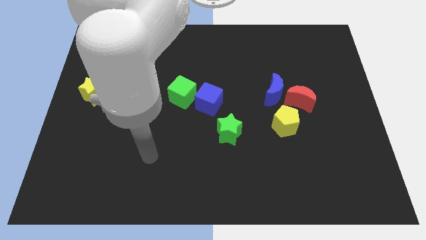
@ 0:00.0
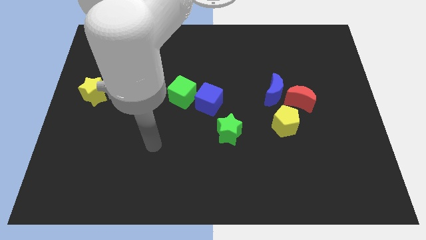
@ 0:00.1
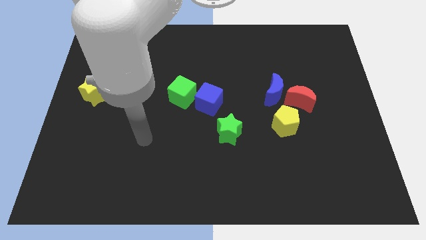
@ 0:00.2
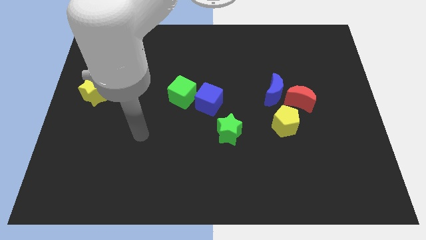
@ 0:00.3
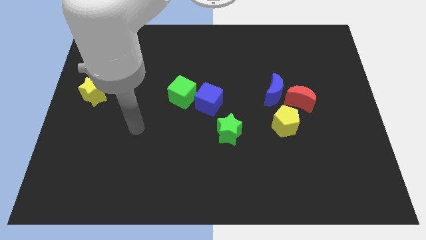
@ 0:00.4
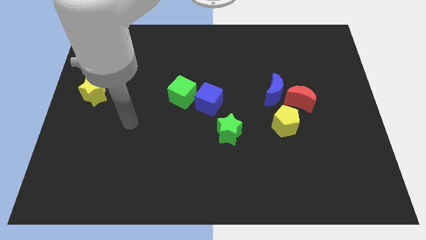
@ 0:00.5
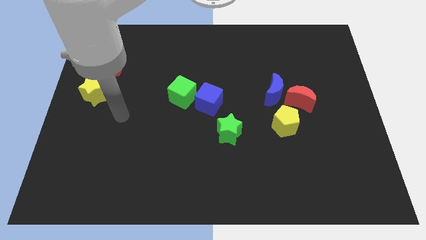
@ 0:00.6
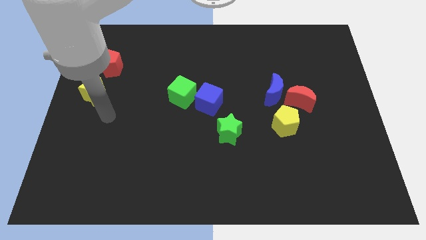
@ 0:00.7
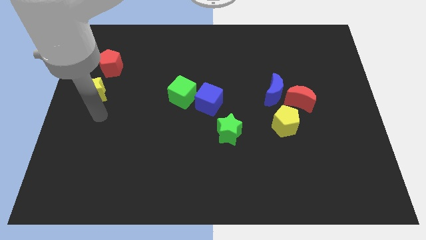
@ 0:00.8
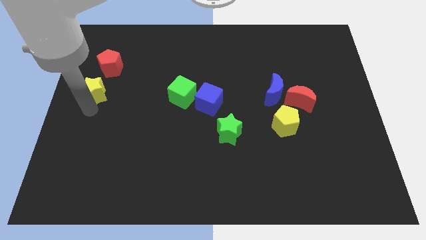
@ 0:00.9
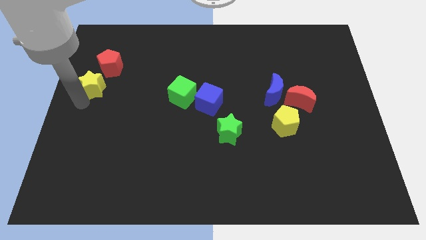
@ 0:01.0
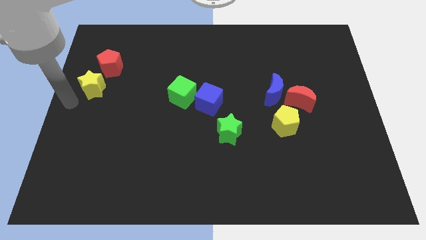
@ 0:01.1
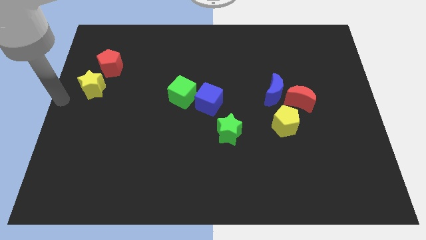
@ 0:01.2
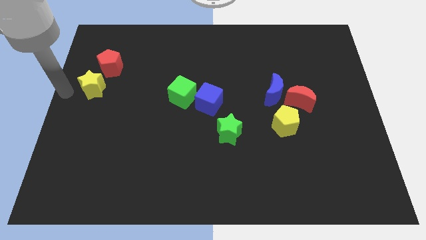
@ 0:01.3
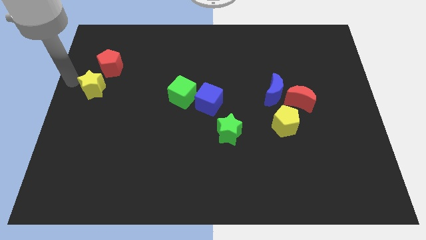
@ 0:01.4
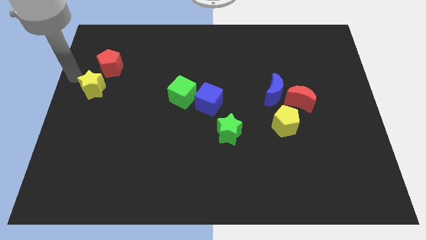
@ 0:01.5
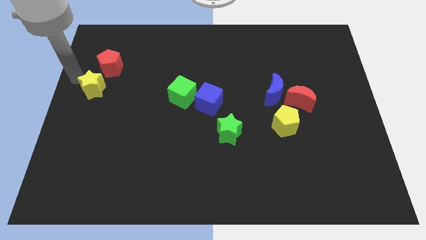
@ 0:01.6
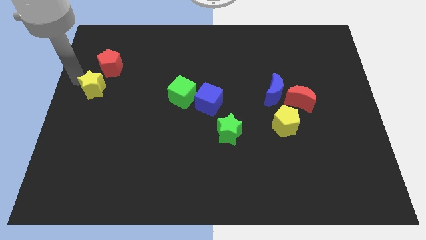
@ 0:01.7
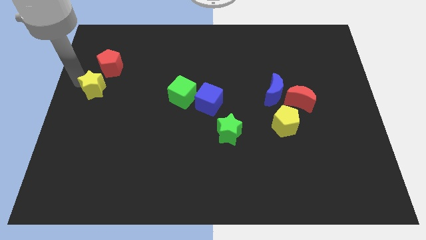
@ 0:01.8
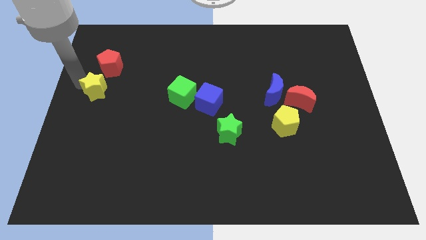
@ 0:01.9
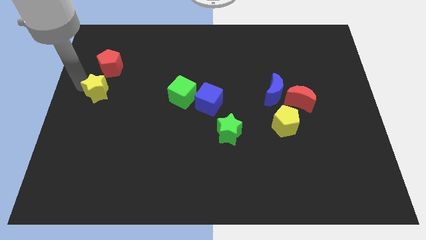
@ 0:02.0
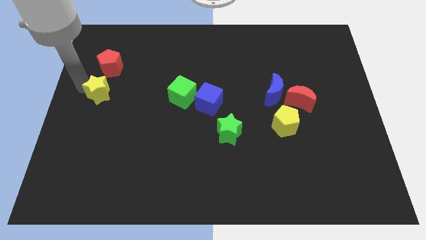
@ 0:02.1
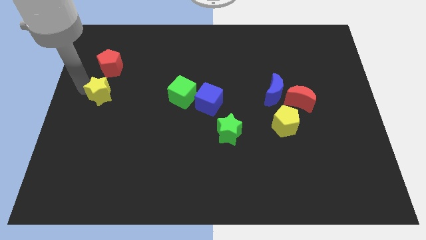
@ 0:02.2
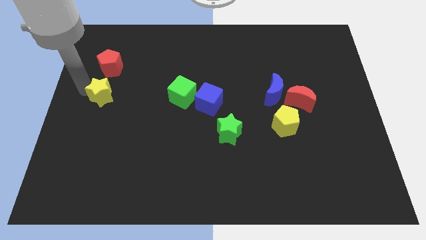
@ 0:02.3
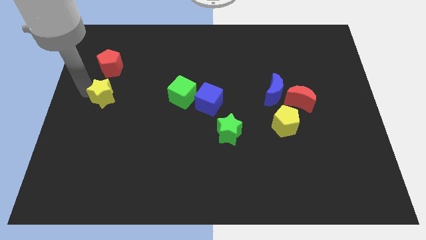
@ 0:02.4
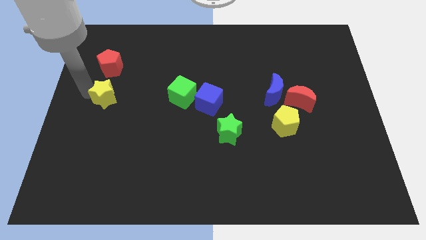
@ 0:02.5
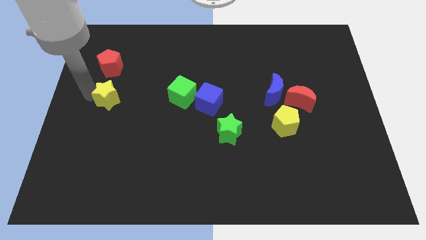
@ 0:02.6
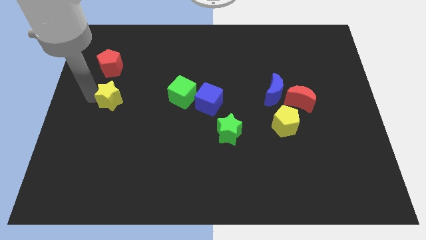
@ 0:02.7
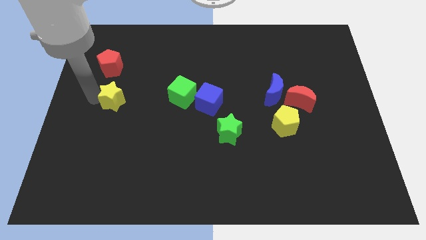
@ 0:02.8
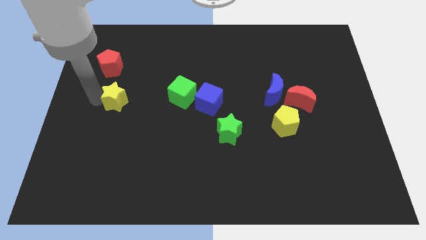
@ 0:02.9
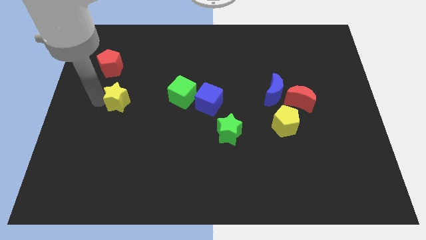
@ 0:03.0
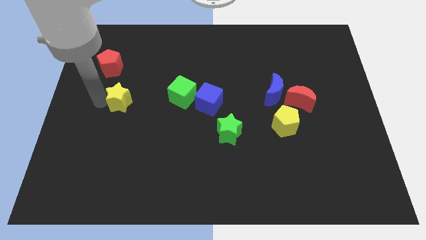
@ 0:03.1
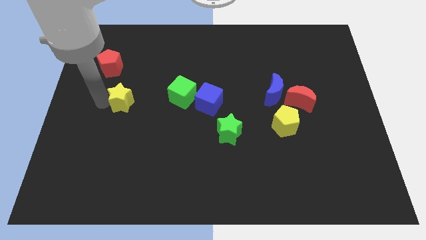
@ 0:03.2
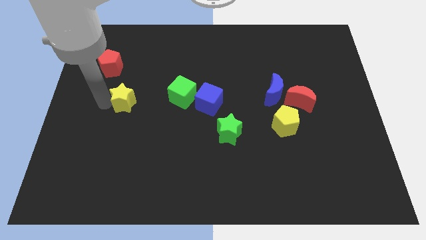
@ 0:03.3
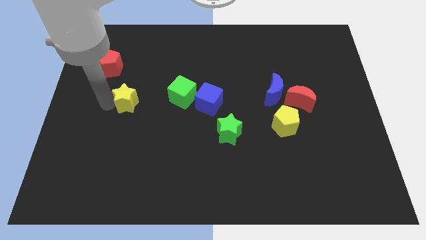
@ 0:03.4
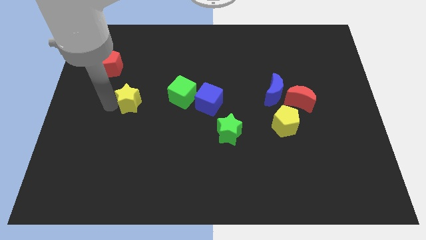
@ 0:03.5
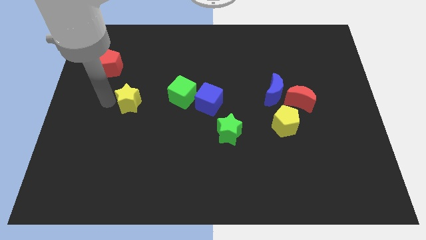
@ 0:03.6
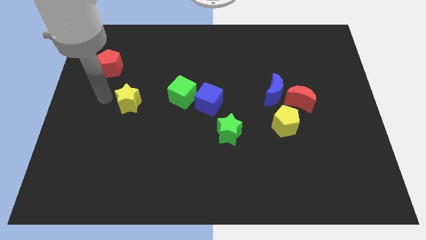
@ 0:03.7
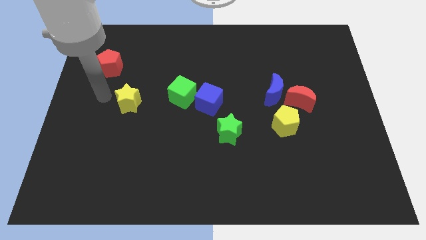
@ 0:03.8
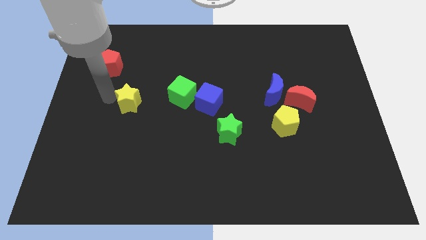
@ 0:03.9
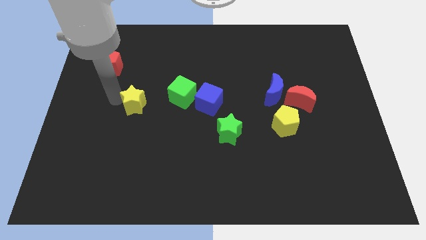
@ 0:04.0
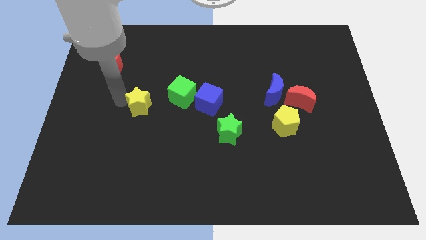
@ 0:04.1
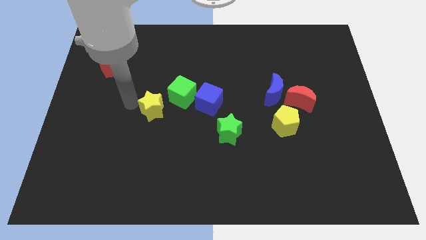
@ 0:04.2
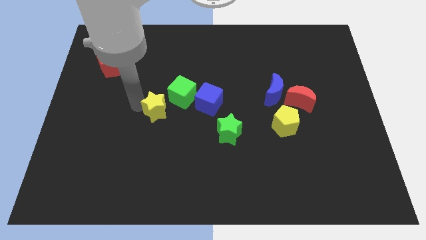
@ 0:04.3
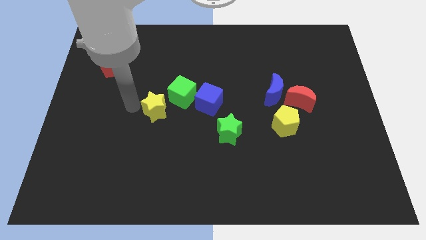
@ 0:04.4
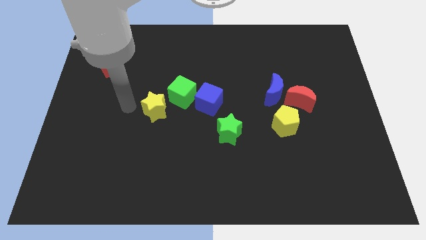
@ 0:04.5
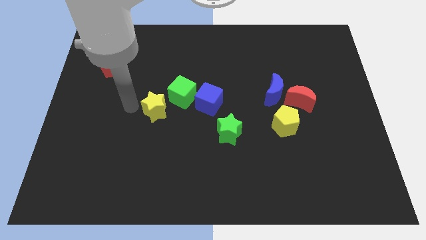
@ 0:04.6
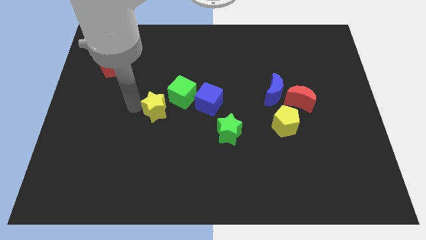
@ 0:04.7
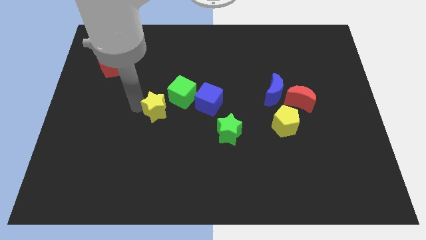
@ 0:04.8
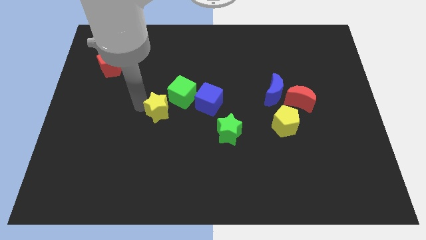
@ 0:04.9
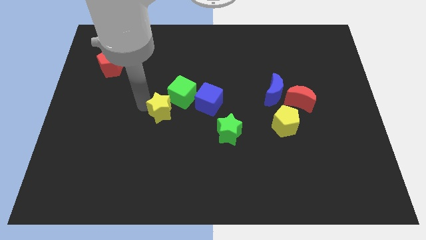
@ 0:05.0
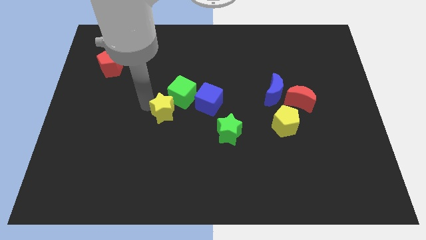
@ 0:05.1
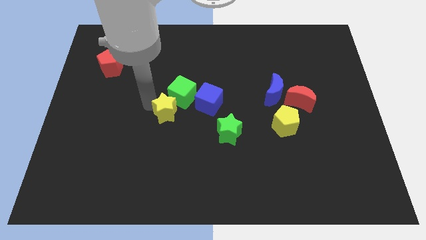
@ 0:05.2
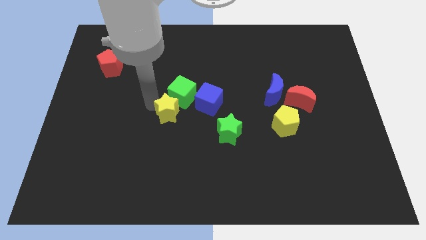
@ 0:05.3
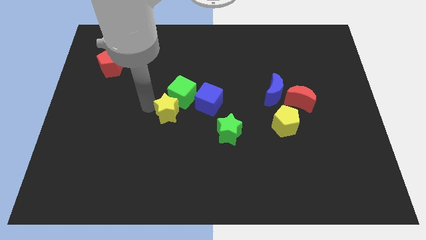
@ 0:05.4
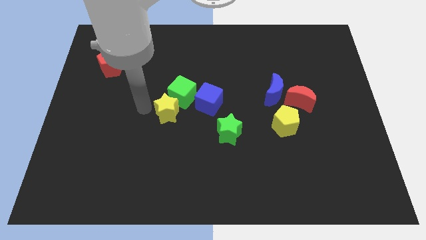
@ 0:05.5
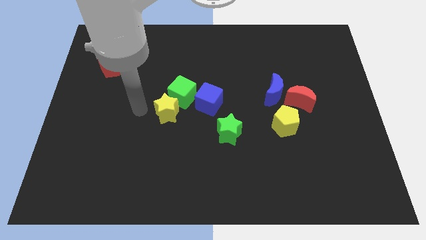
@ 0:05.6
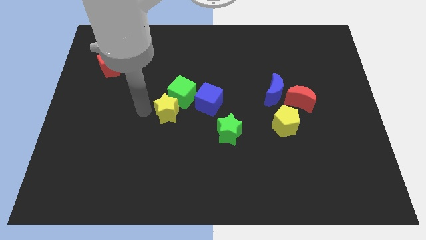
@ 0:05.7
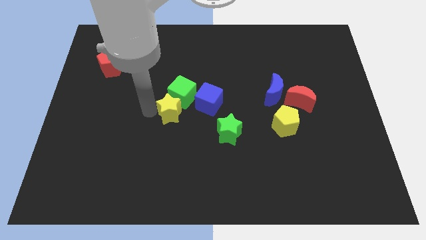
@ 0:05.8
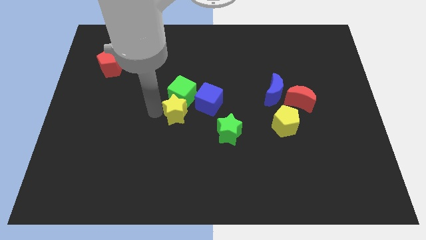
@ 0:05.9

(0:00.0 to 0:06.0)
put the yellow star diagonally down and to the right of the green cube

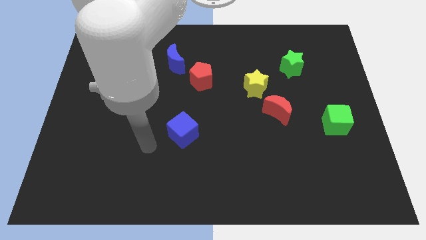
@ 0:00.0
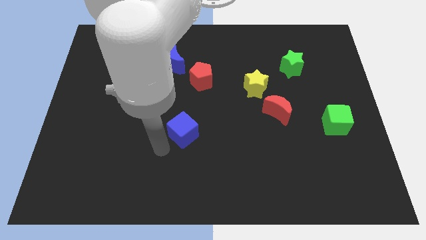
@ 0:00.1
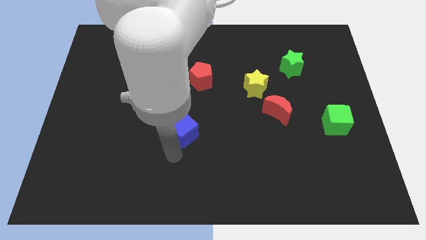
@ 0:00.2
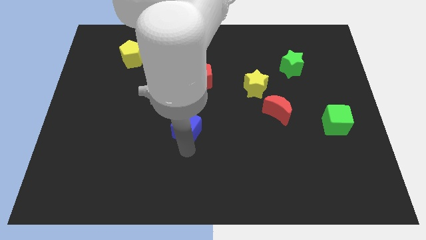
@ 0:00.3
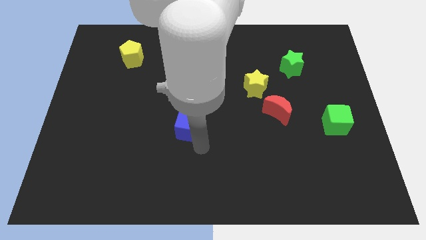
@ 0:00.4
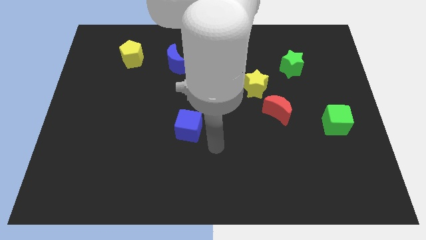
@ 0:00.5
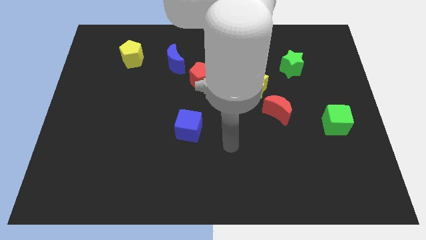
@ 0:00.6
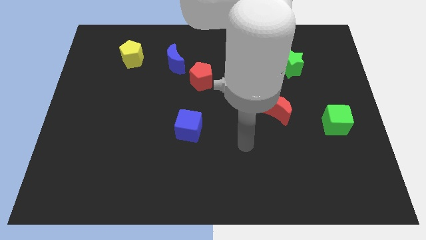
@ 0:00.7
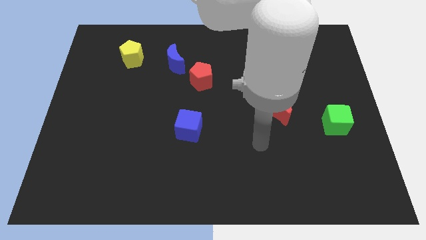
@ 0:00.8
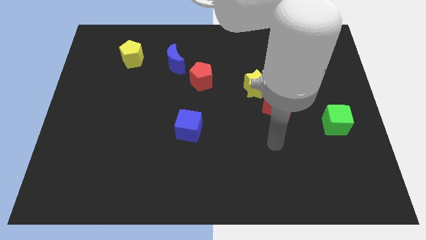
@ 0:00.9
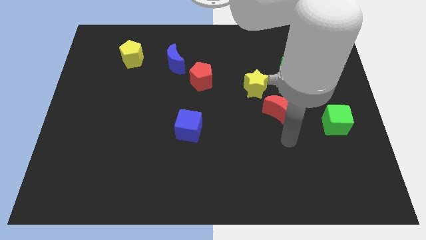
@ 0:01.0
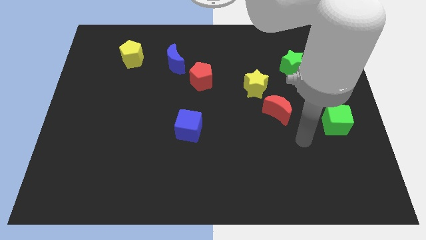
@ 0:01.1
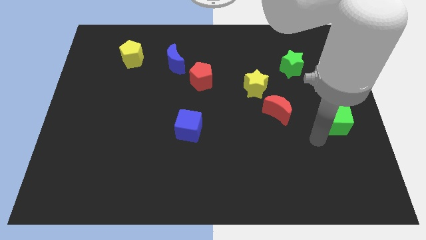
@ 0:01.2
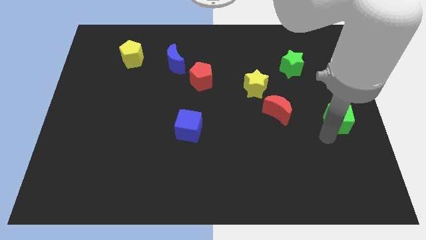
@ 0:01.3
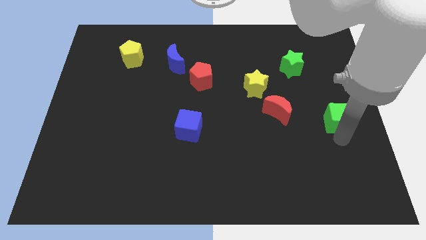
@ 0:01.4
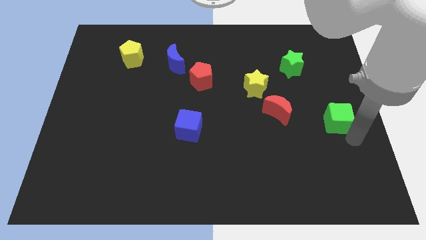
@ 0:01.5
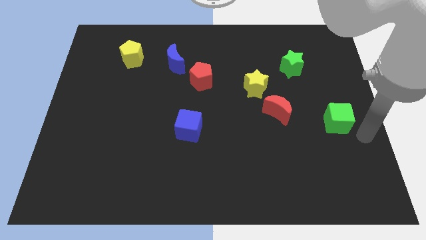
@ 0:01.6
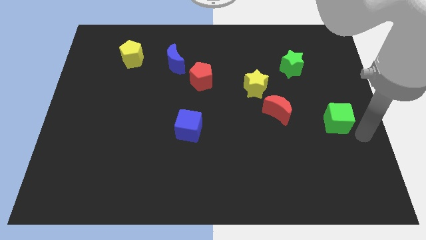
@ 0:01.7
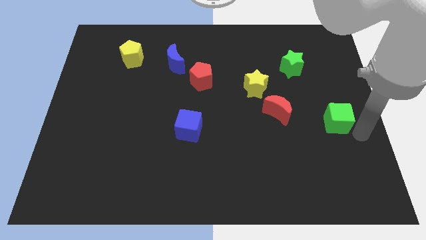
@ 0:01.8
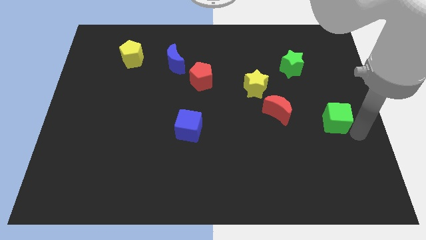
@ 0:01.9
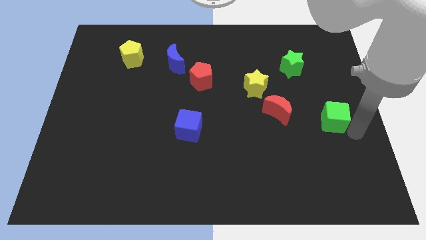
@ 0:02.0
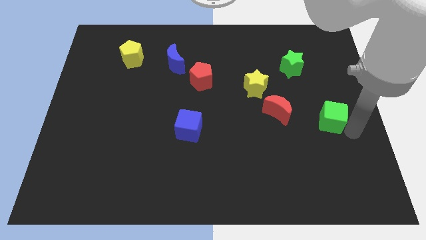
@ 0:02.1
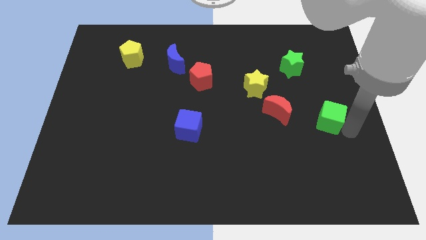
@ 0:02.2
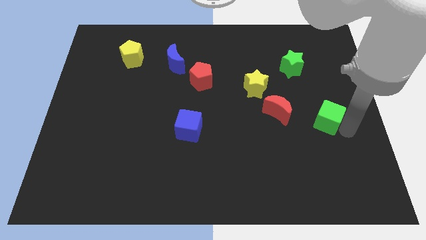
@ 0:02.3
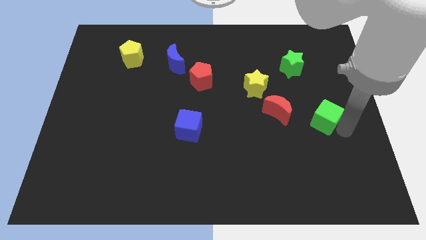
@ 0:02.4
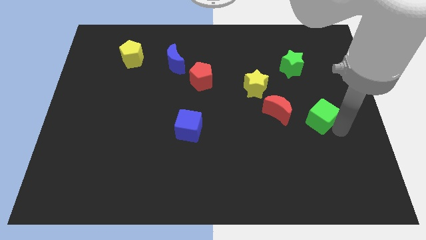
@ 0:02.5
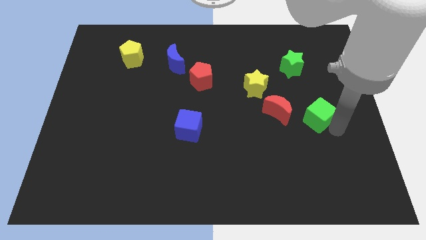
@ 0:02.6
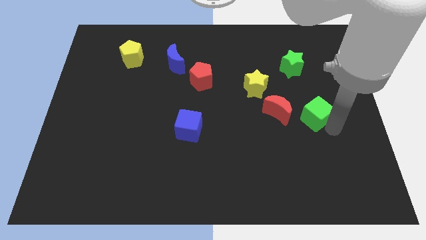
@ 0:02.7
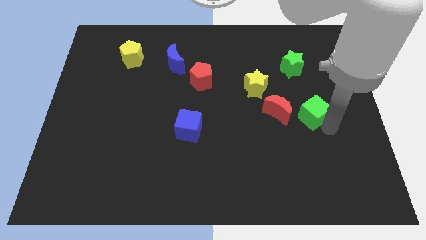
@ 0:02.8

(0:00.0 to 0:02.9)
move the green cube to the bottom of the green star
